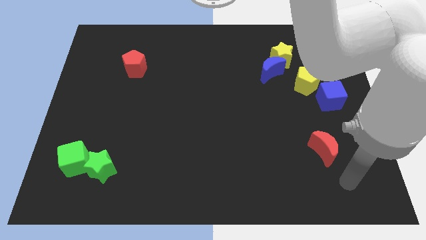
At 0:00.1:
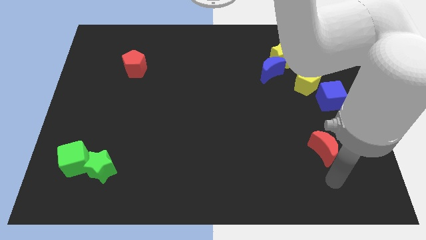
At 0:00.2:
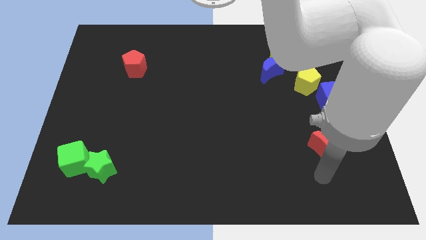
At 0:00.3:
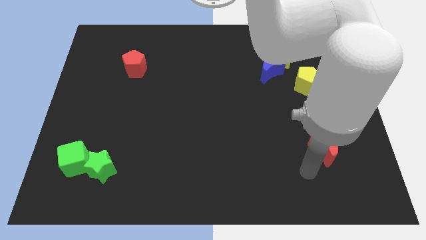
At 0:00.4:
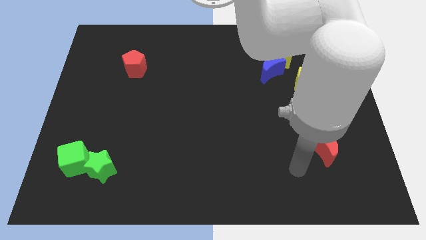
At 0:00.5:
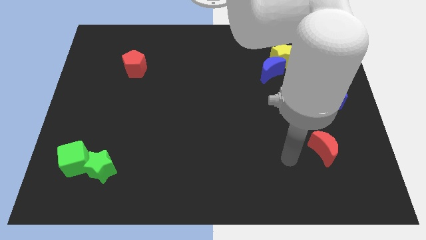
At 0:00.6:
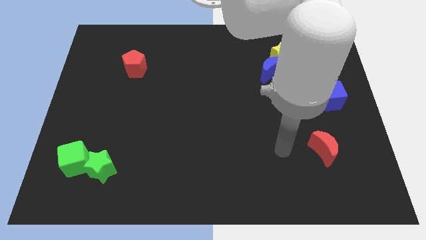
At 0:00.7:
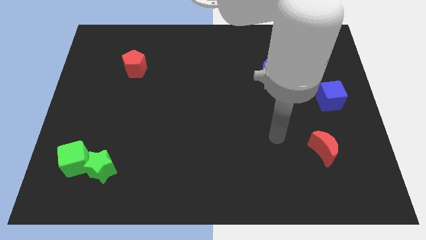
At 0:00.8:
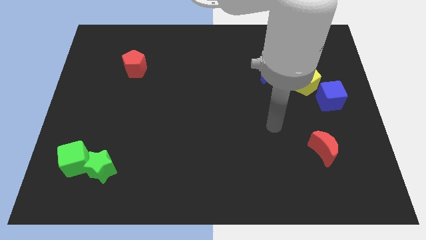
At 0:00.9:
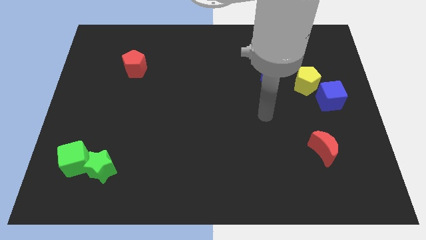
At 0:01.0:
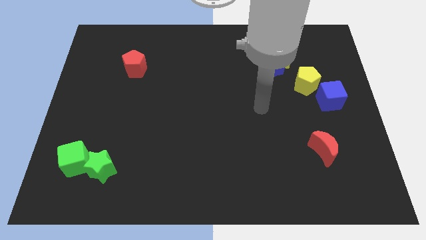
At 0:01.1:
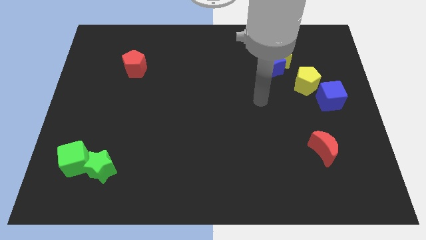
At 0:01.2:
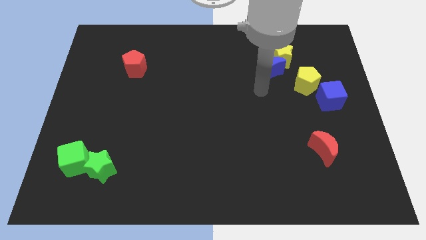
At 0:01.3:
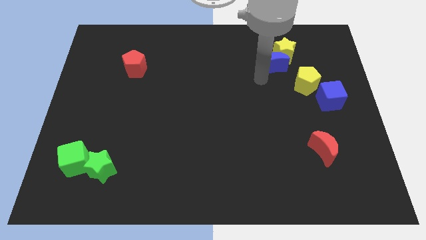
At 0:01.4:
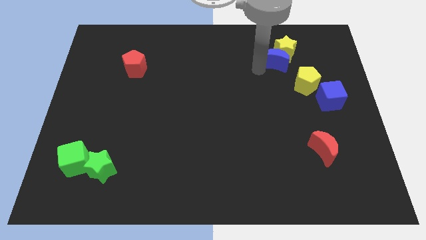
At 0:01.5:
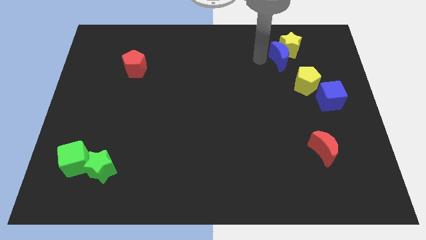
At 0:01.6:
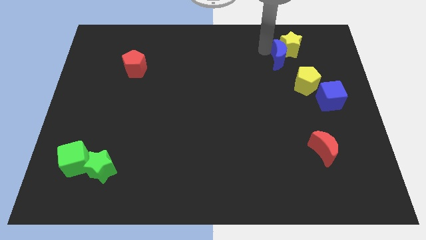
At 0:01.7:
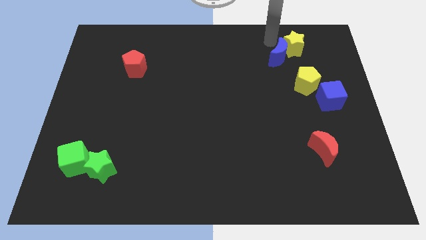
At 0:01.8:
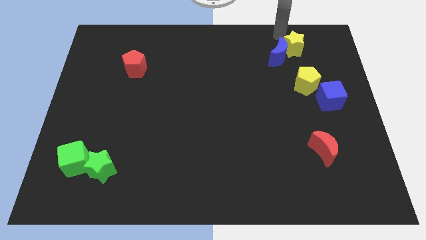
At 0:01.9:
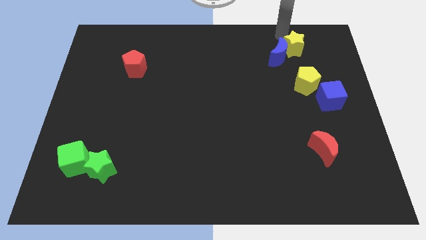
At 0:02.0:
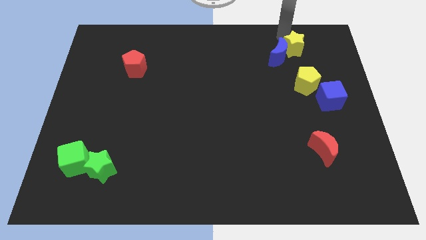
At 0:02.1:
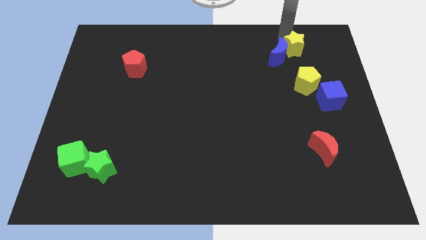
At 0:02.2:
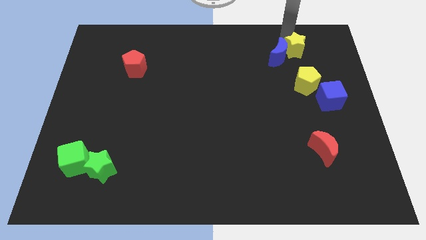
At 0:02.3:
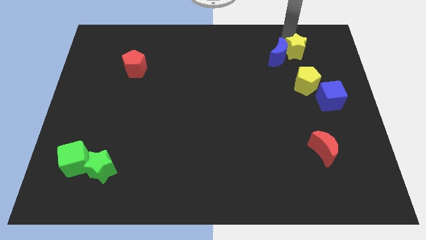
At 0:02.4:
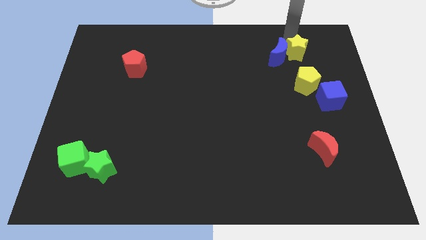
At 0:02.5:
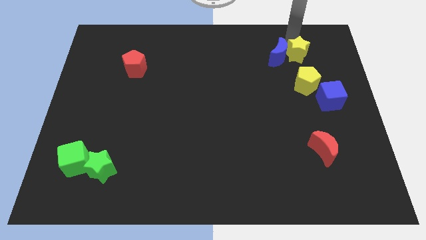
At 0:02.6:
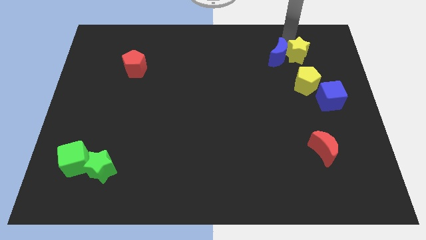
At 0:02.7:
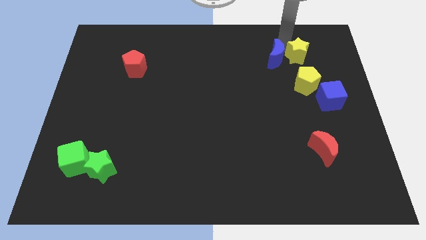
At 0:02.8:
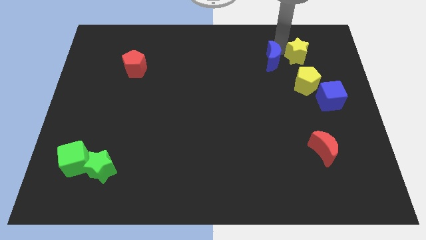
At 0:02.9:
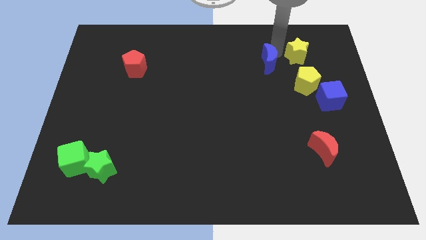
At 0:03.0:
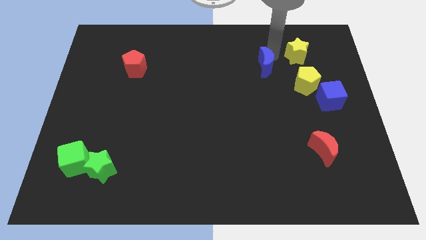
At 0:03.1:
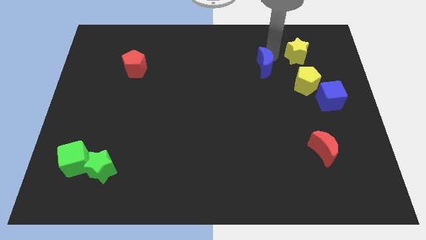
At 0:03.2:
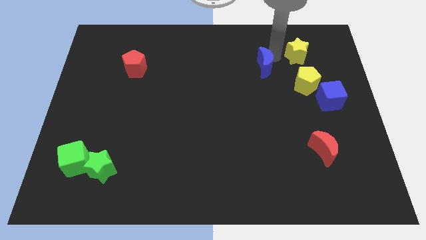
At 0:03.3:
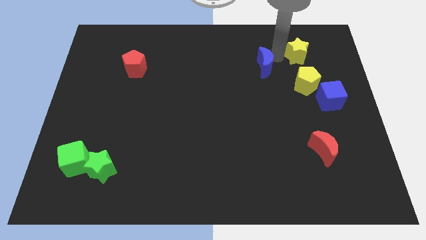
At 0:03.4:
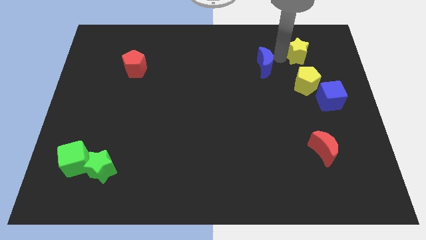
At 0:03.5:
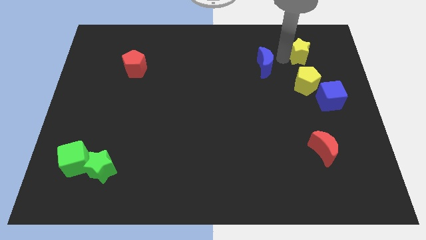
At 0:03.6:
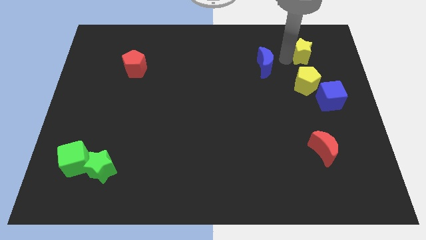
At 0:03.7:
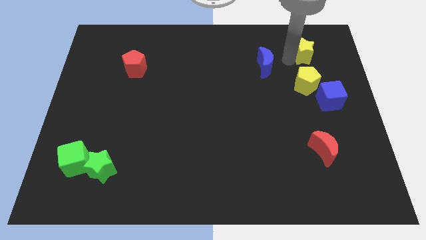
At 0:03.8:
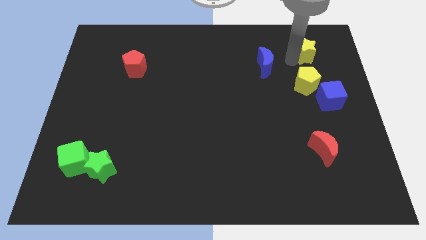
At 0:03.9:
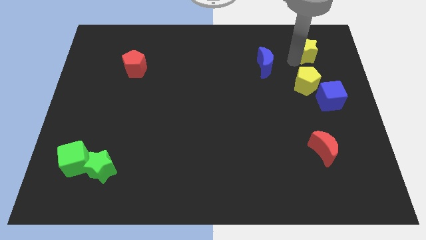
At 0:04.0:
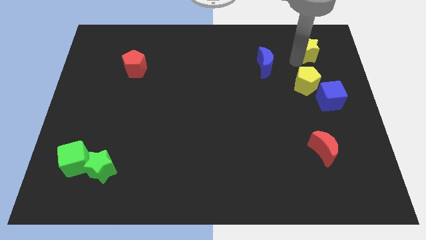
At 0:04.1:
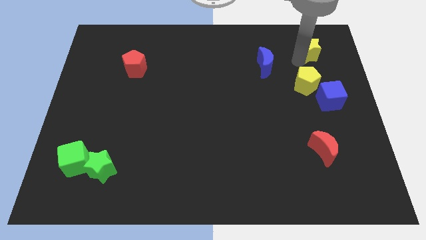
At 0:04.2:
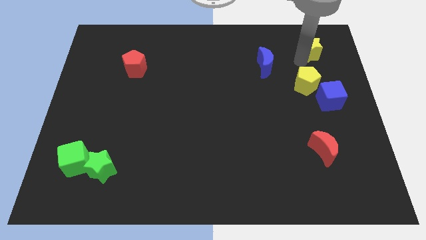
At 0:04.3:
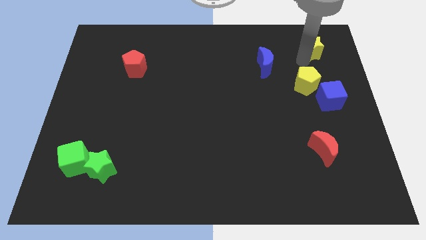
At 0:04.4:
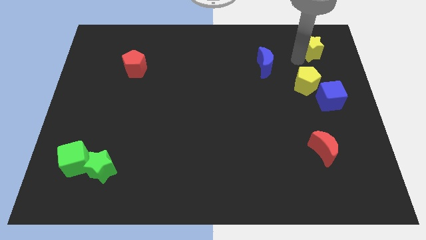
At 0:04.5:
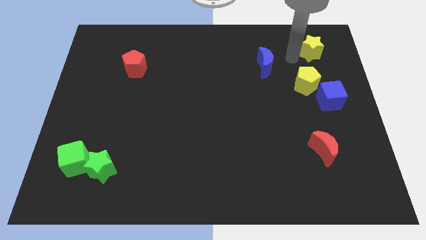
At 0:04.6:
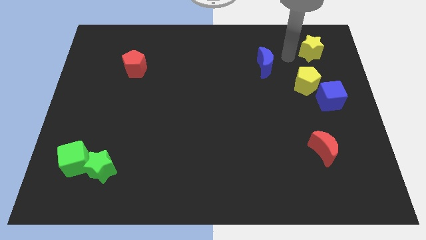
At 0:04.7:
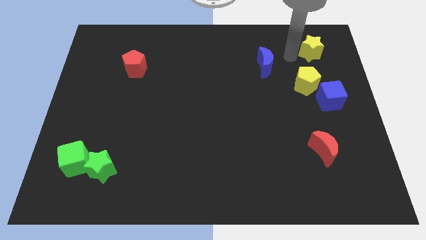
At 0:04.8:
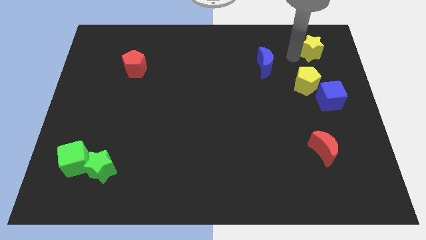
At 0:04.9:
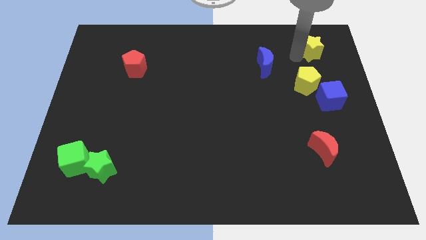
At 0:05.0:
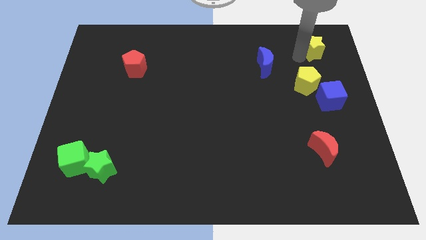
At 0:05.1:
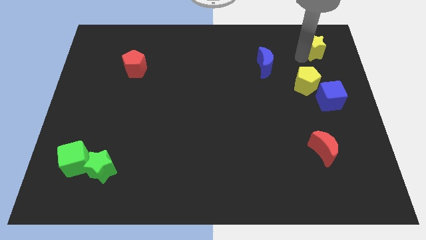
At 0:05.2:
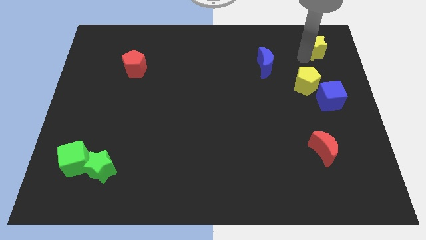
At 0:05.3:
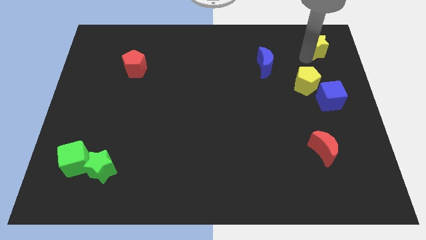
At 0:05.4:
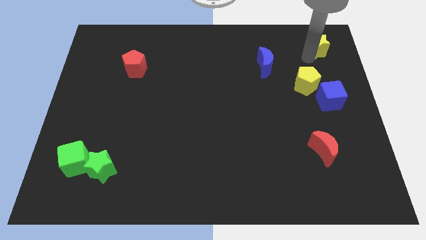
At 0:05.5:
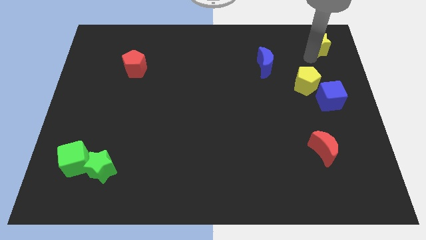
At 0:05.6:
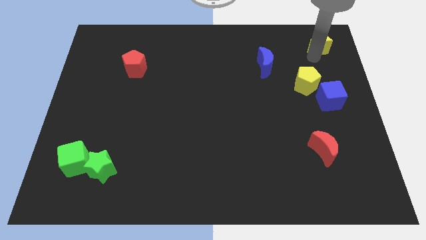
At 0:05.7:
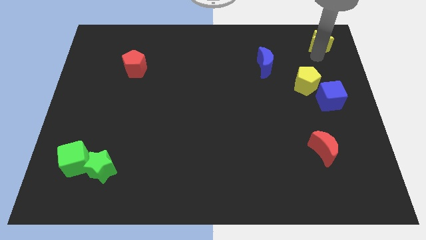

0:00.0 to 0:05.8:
move the yellow star to the top right corner

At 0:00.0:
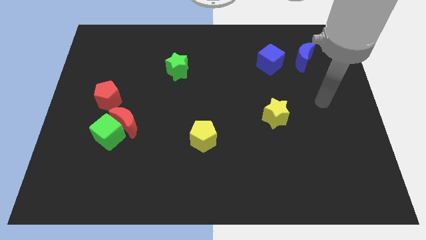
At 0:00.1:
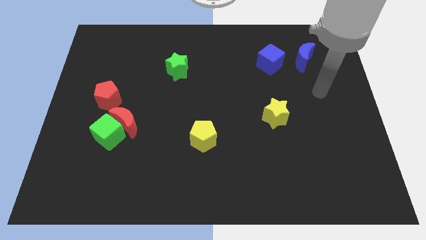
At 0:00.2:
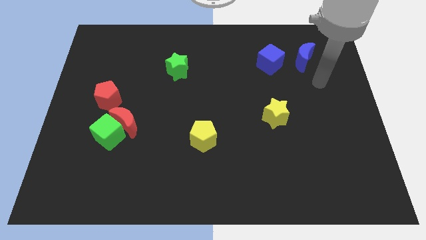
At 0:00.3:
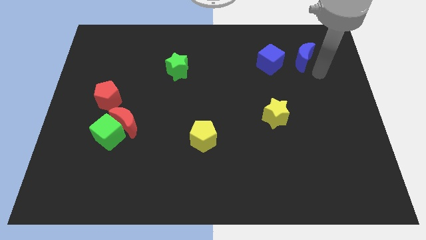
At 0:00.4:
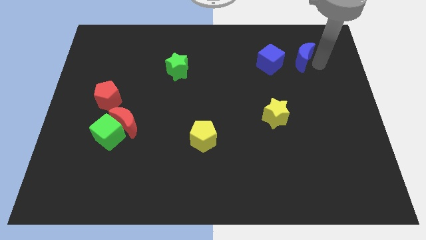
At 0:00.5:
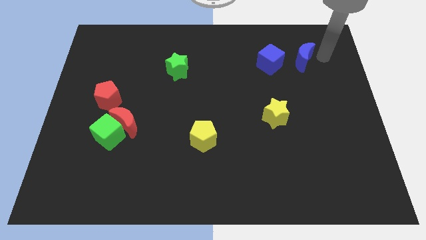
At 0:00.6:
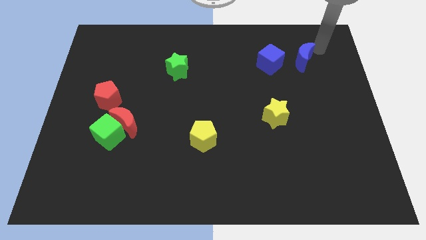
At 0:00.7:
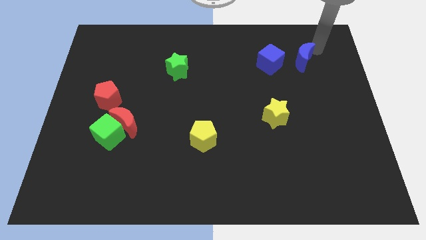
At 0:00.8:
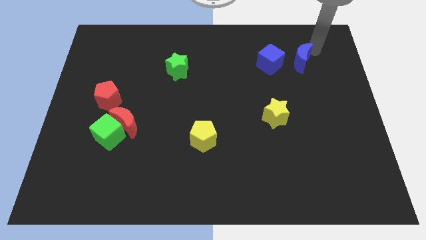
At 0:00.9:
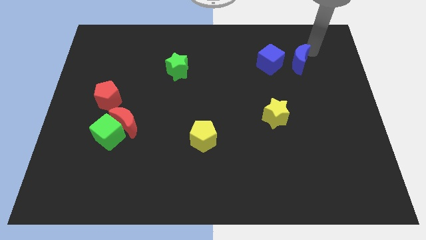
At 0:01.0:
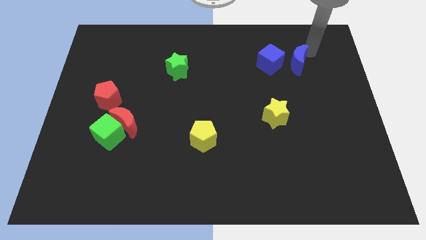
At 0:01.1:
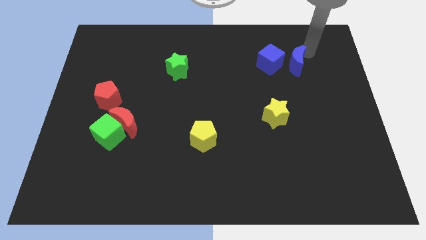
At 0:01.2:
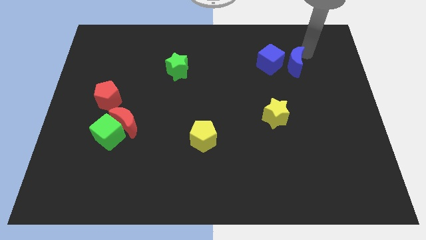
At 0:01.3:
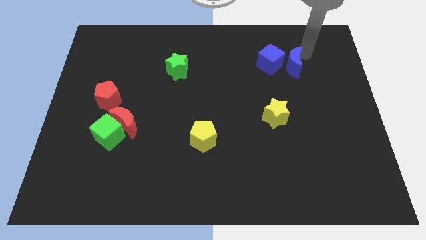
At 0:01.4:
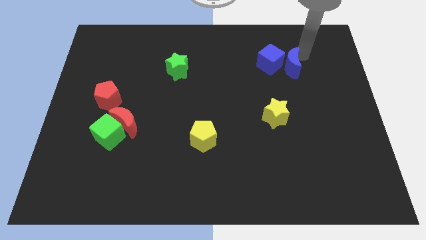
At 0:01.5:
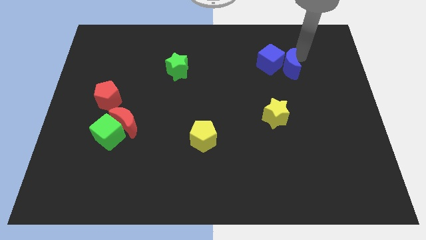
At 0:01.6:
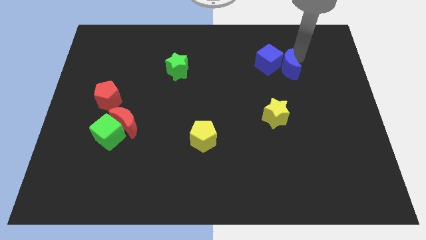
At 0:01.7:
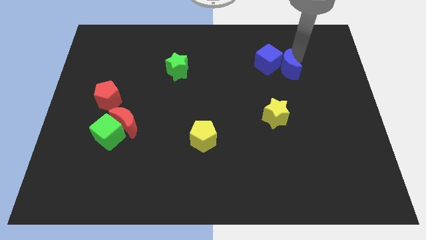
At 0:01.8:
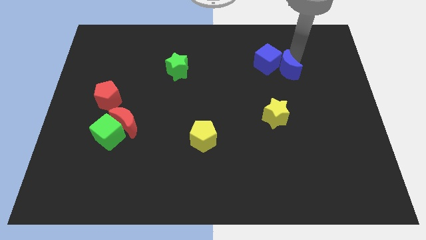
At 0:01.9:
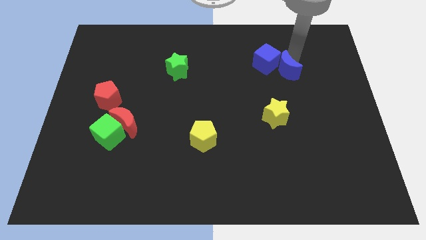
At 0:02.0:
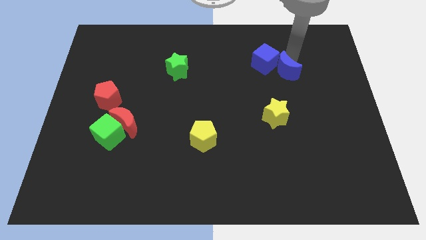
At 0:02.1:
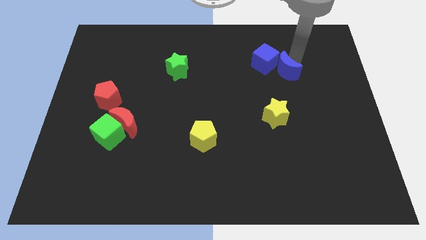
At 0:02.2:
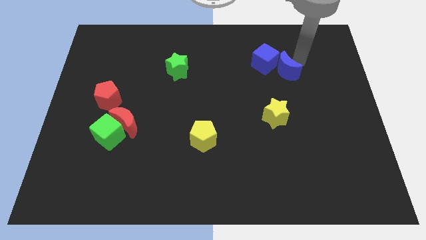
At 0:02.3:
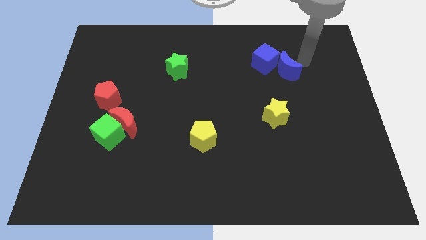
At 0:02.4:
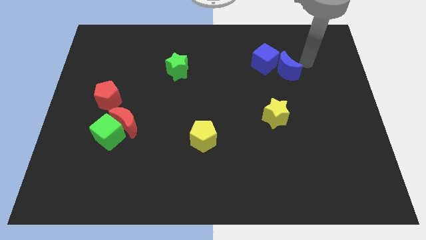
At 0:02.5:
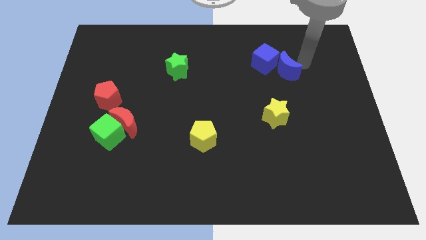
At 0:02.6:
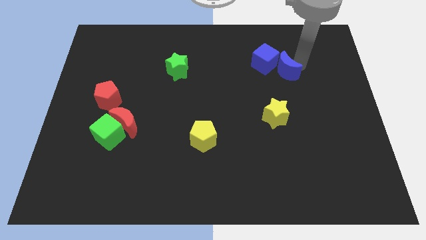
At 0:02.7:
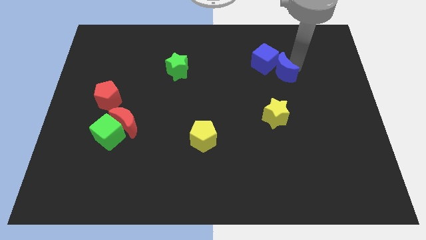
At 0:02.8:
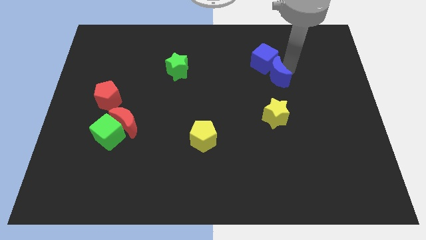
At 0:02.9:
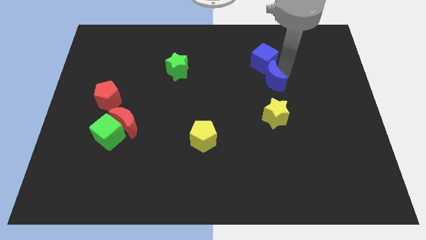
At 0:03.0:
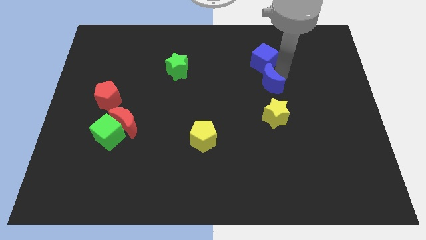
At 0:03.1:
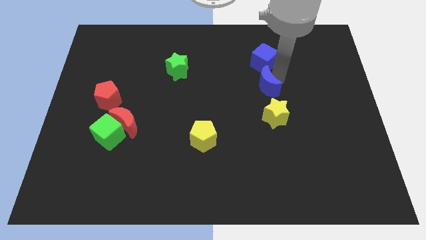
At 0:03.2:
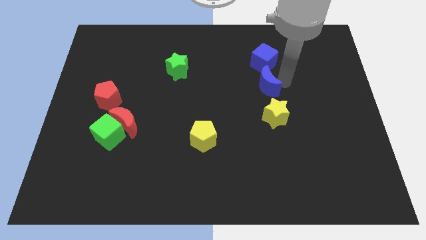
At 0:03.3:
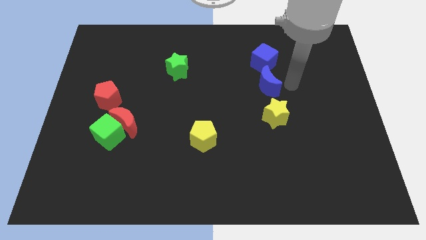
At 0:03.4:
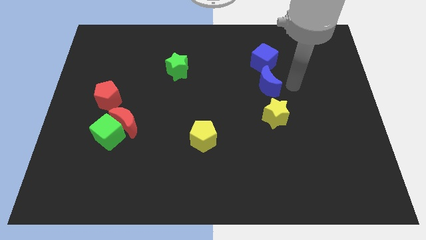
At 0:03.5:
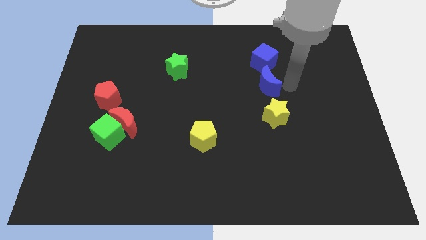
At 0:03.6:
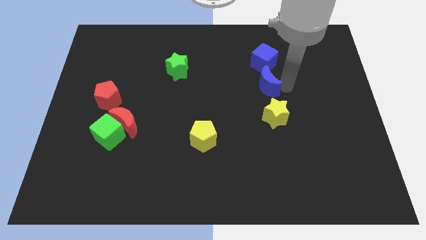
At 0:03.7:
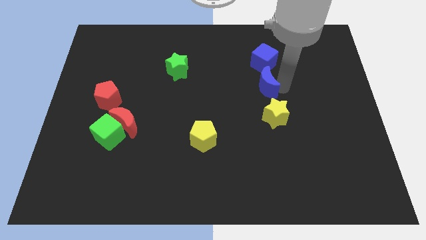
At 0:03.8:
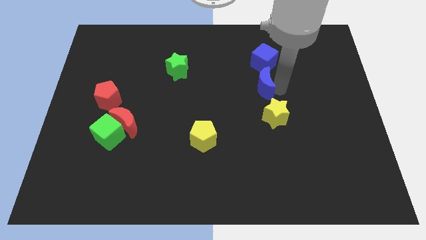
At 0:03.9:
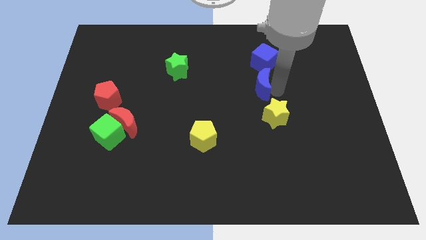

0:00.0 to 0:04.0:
slide the blue moon to the center
